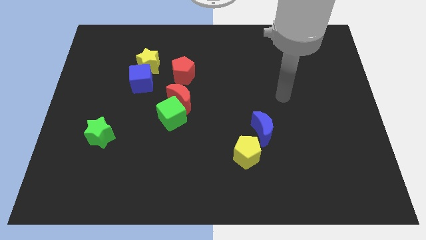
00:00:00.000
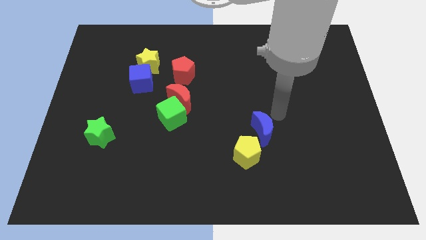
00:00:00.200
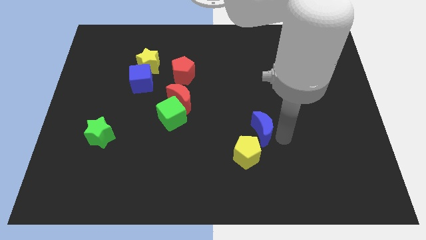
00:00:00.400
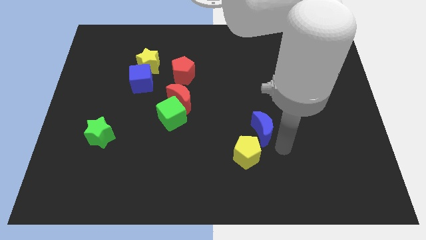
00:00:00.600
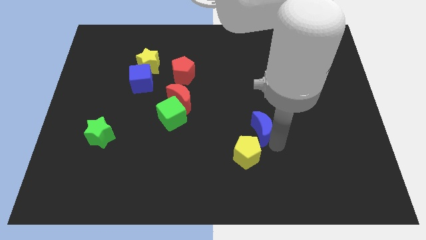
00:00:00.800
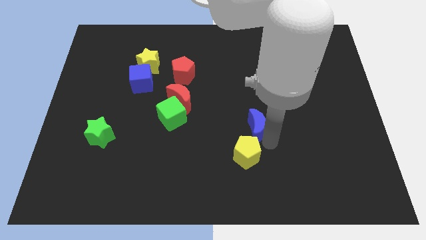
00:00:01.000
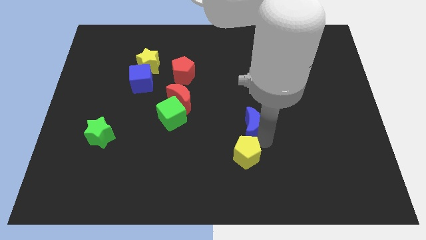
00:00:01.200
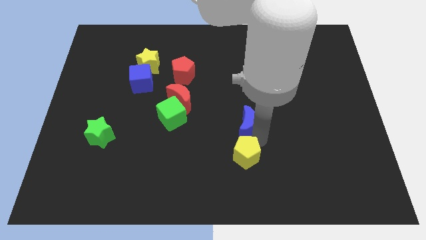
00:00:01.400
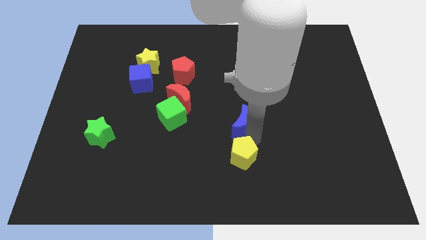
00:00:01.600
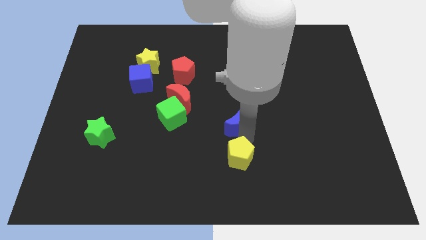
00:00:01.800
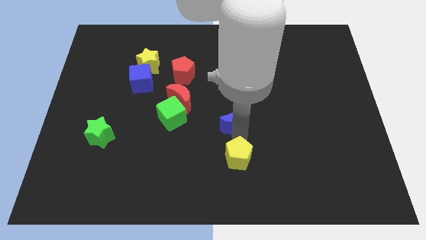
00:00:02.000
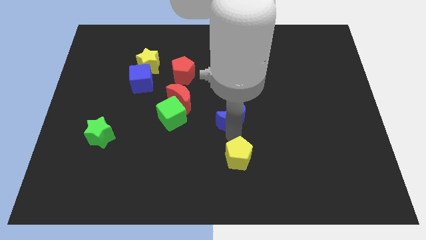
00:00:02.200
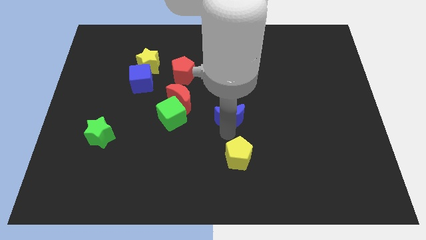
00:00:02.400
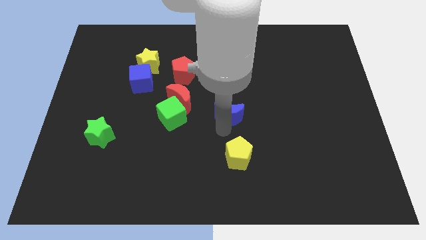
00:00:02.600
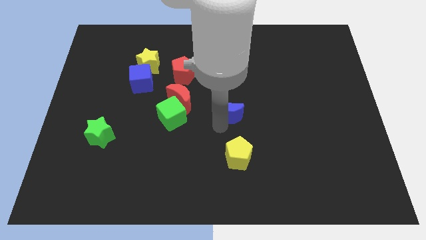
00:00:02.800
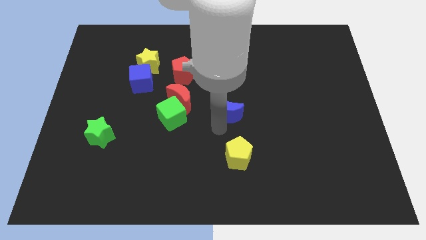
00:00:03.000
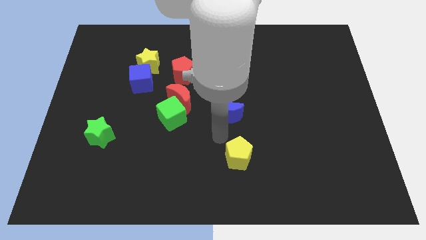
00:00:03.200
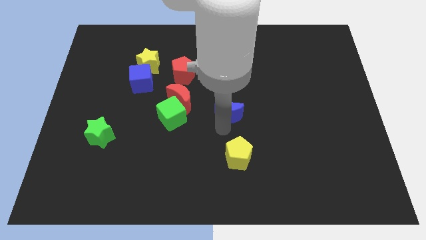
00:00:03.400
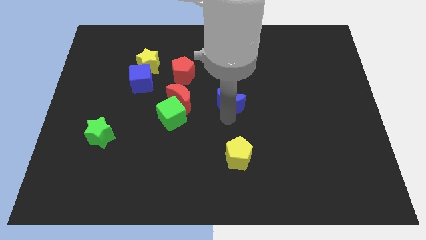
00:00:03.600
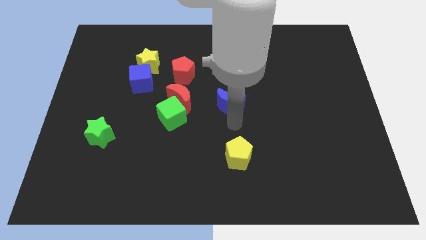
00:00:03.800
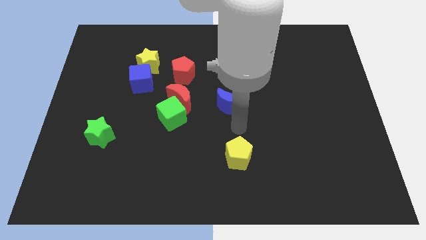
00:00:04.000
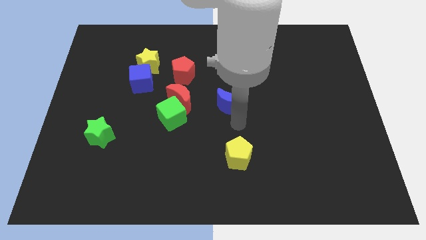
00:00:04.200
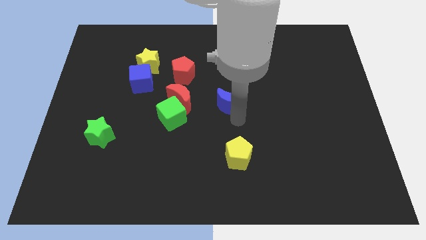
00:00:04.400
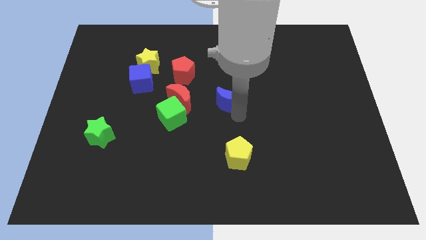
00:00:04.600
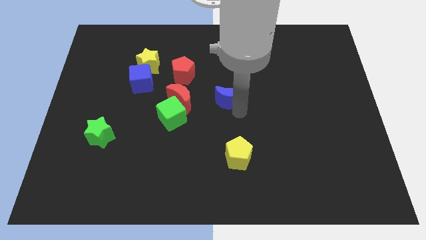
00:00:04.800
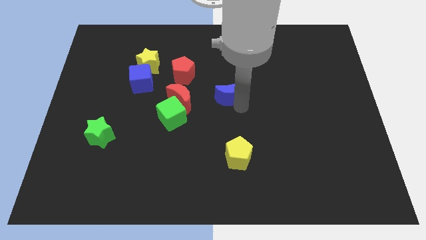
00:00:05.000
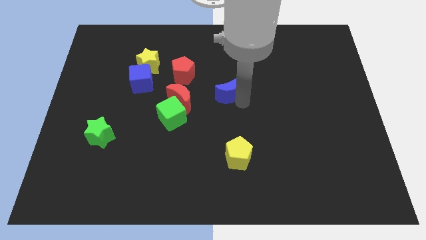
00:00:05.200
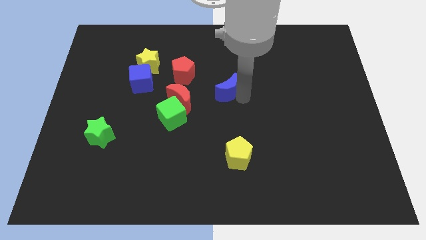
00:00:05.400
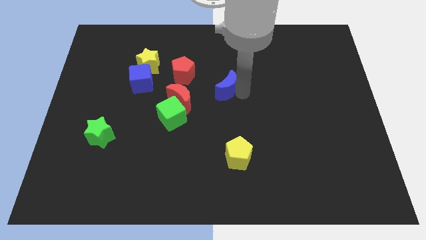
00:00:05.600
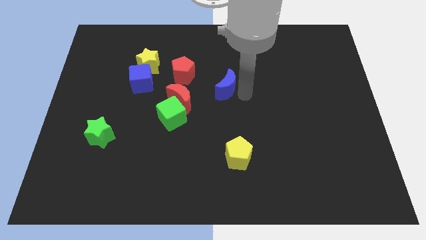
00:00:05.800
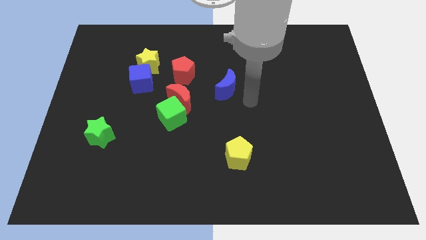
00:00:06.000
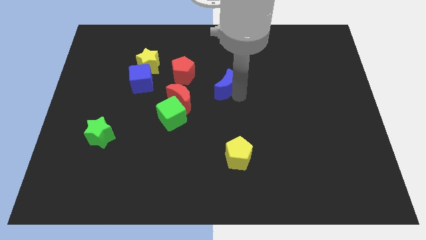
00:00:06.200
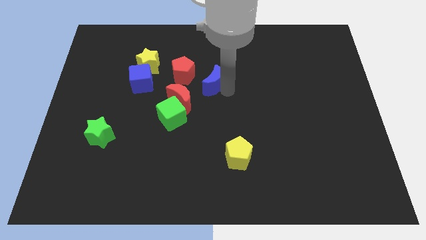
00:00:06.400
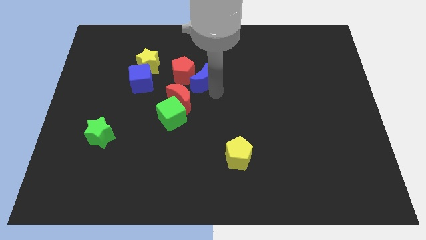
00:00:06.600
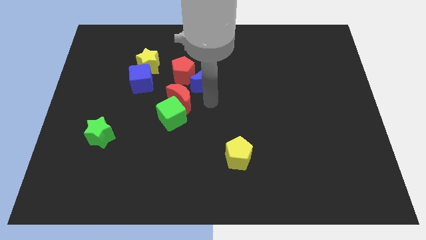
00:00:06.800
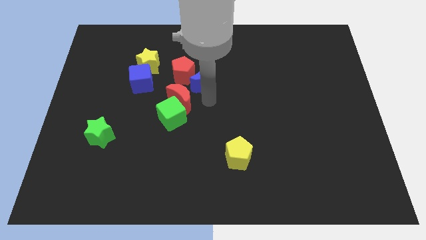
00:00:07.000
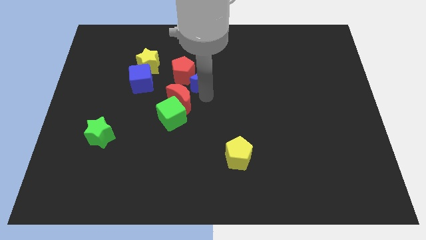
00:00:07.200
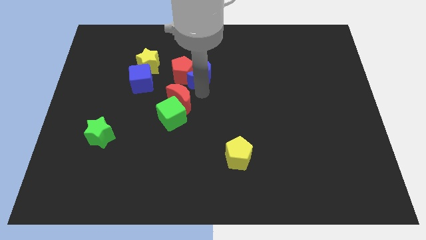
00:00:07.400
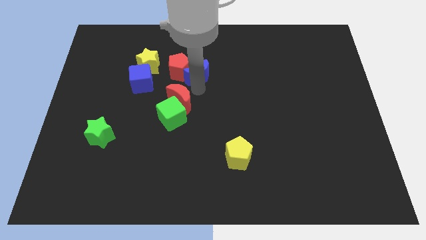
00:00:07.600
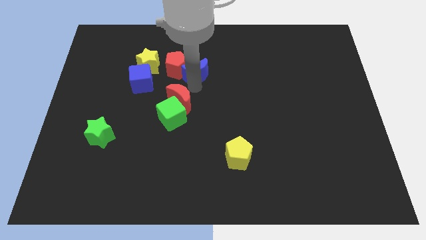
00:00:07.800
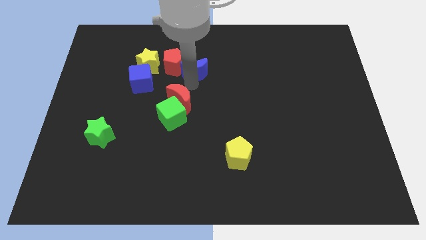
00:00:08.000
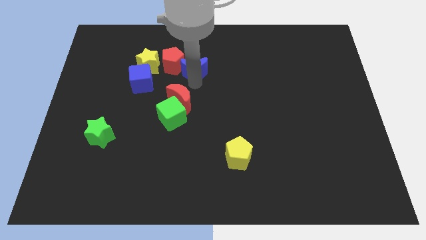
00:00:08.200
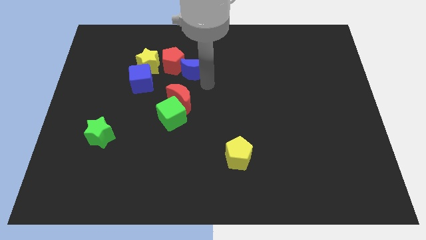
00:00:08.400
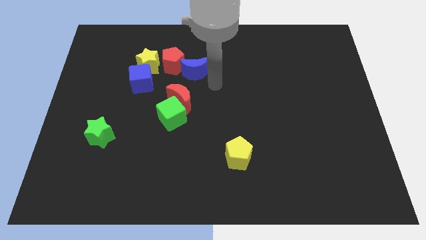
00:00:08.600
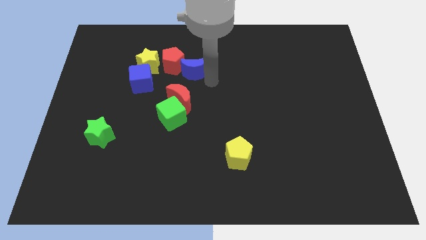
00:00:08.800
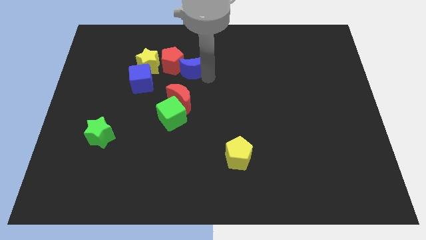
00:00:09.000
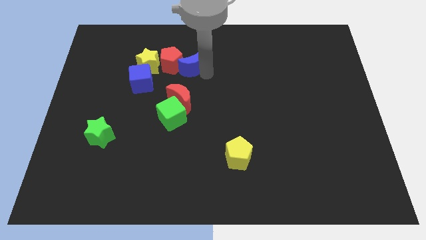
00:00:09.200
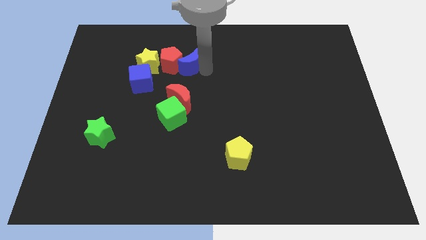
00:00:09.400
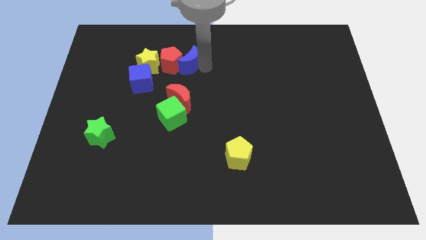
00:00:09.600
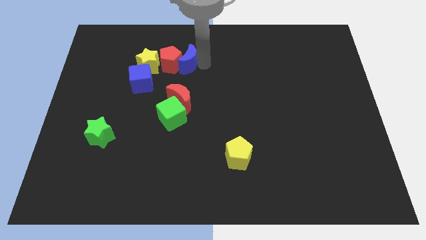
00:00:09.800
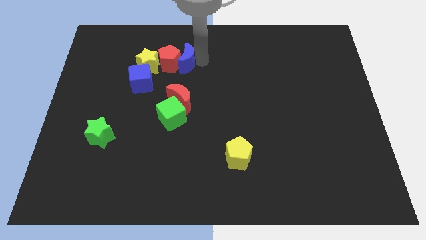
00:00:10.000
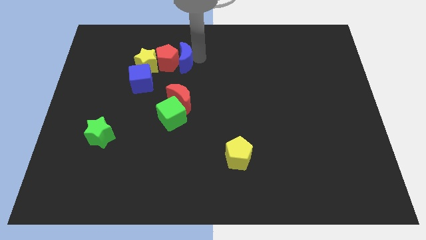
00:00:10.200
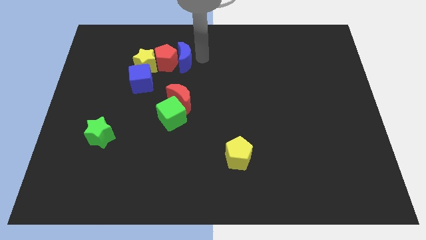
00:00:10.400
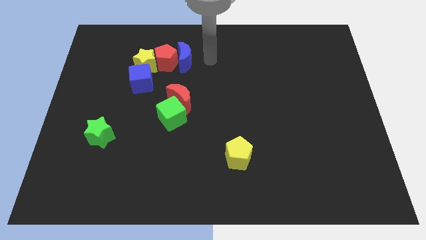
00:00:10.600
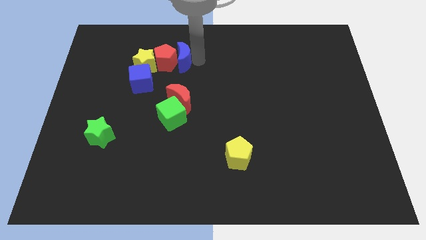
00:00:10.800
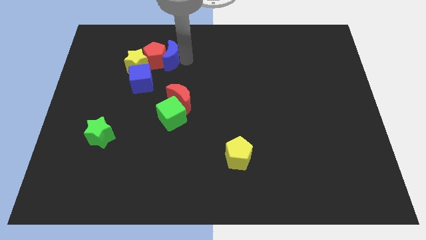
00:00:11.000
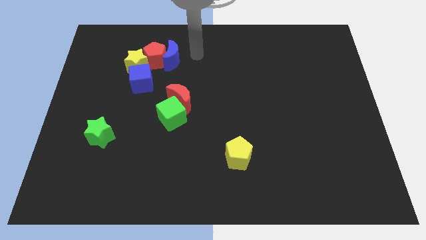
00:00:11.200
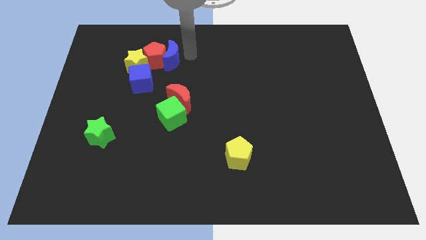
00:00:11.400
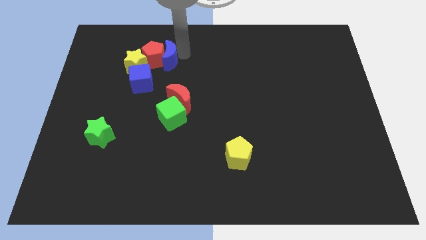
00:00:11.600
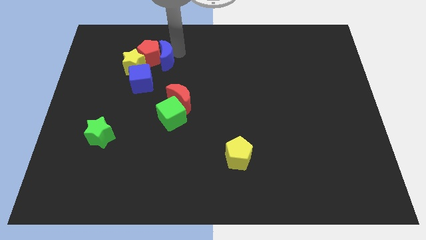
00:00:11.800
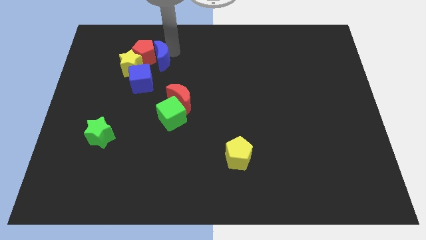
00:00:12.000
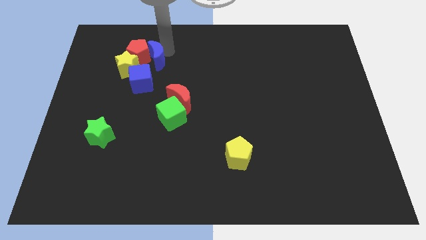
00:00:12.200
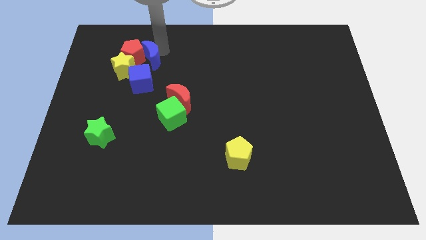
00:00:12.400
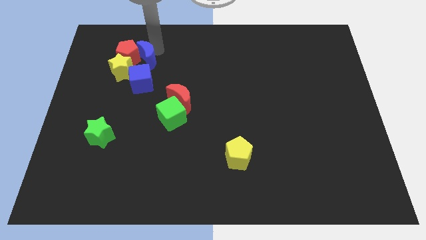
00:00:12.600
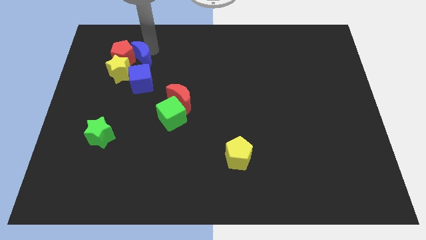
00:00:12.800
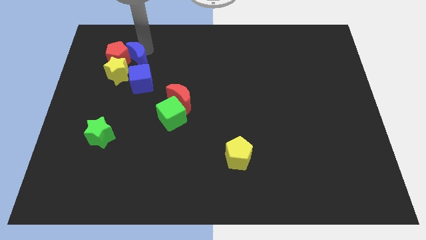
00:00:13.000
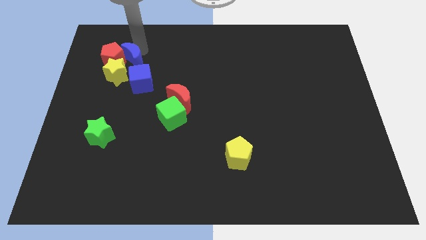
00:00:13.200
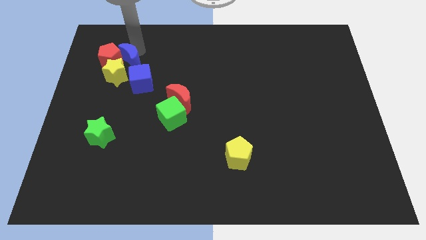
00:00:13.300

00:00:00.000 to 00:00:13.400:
put the blue moon next to the yellow star

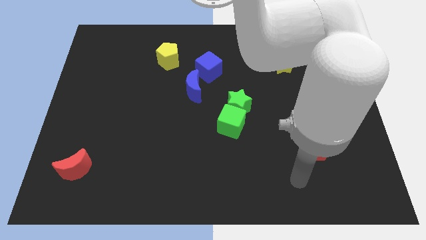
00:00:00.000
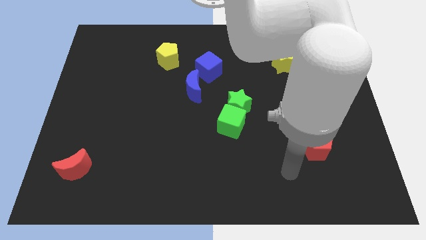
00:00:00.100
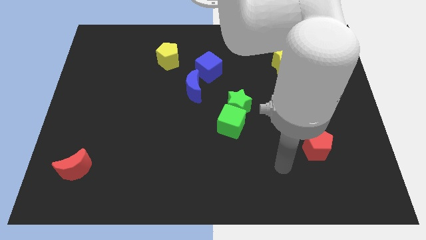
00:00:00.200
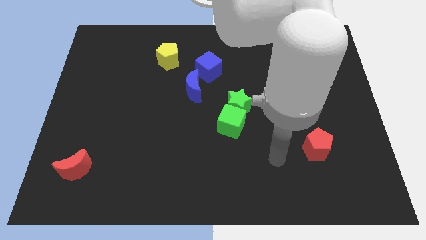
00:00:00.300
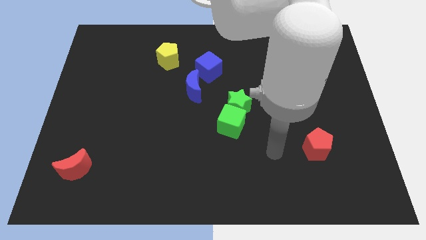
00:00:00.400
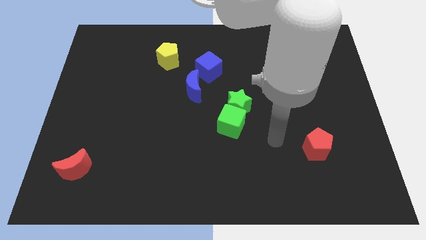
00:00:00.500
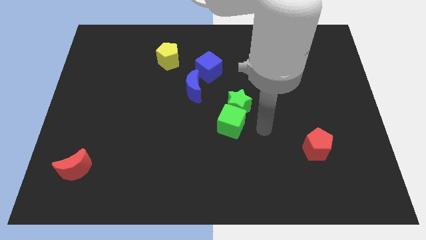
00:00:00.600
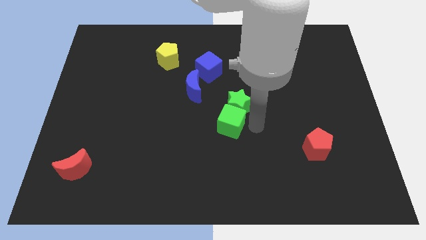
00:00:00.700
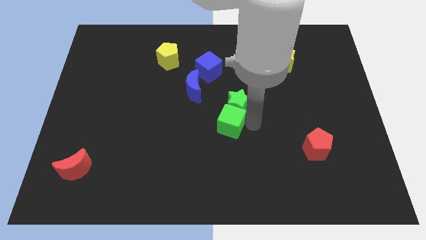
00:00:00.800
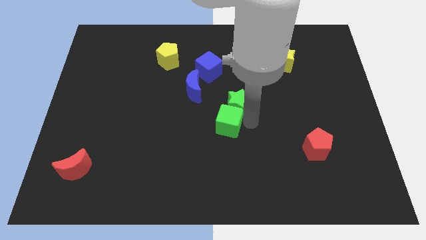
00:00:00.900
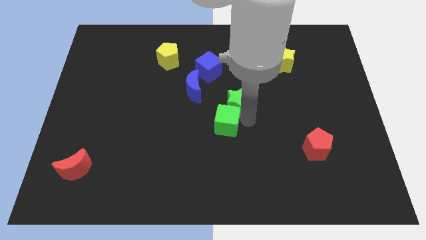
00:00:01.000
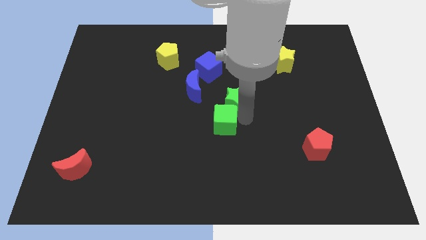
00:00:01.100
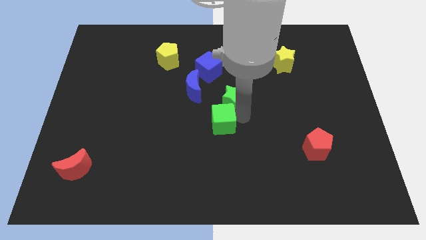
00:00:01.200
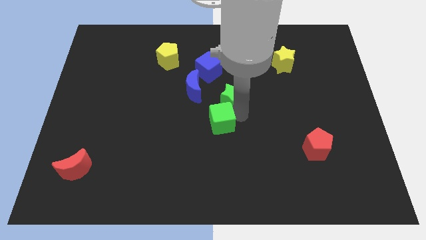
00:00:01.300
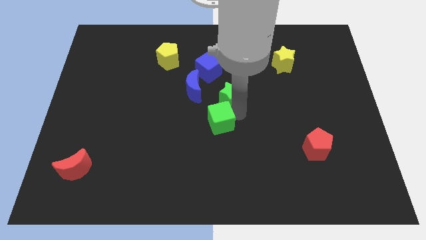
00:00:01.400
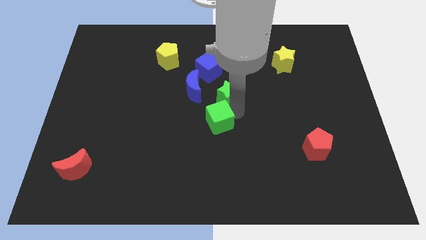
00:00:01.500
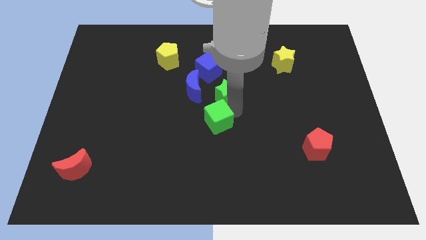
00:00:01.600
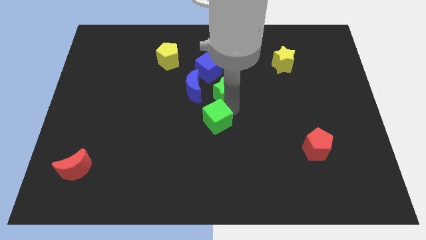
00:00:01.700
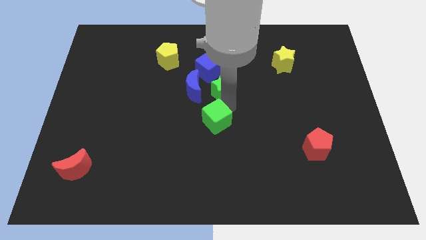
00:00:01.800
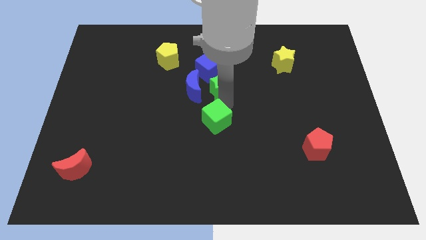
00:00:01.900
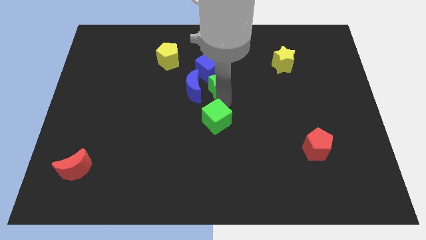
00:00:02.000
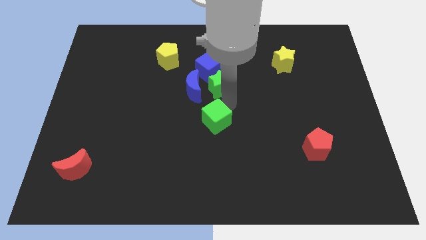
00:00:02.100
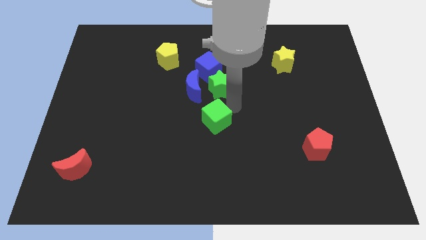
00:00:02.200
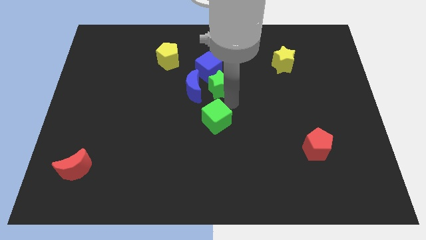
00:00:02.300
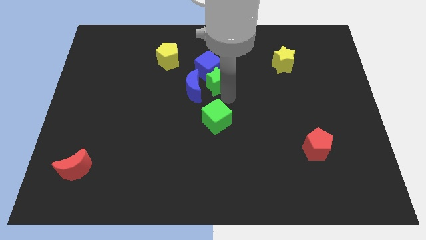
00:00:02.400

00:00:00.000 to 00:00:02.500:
slide the green star towards the blue cube
